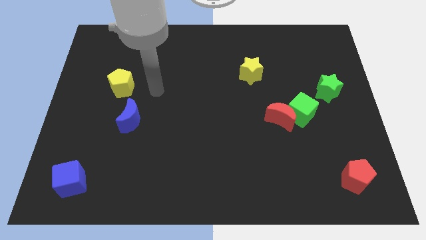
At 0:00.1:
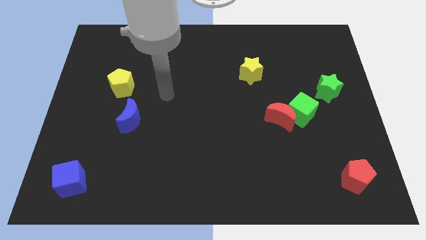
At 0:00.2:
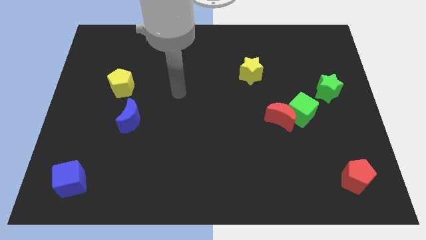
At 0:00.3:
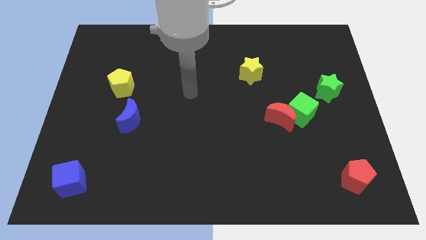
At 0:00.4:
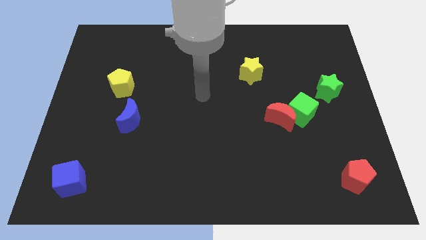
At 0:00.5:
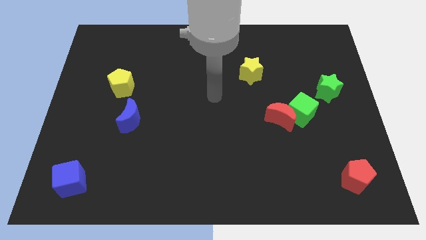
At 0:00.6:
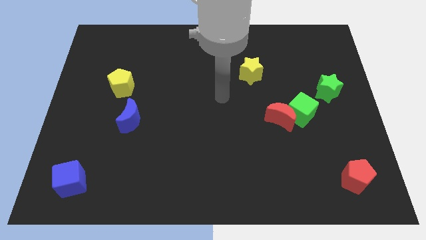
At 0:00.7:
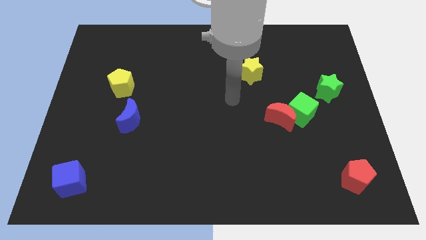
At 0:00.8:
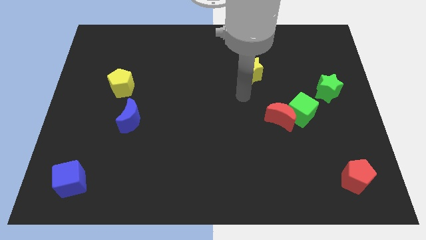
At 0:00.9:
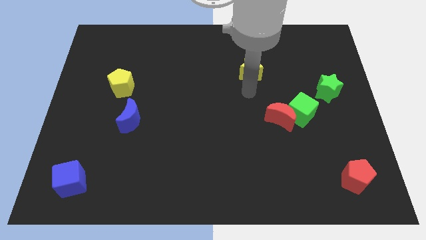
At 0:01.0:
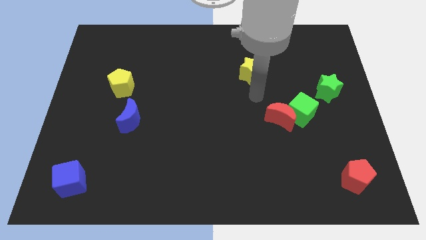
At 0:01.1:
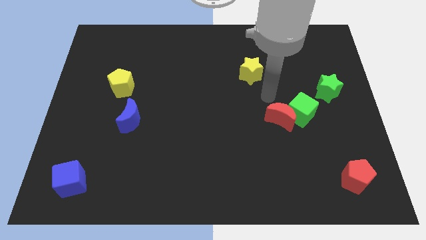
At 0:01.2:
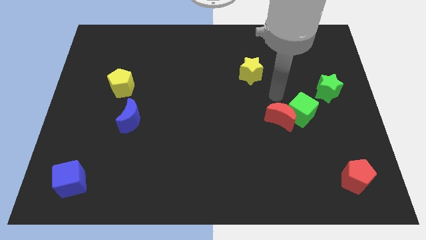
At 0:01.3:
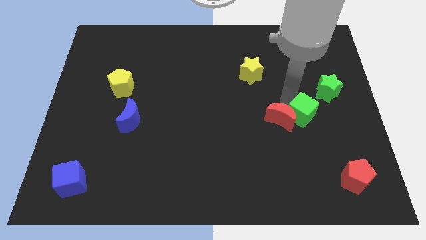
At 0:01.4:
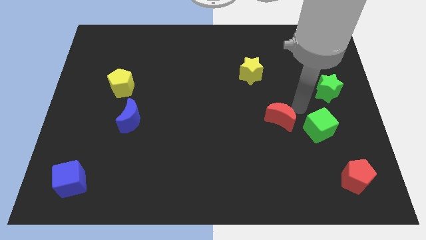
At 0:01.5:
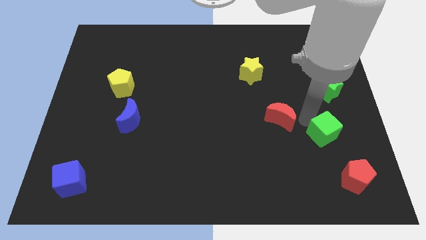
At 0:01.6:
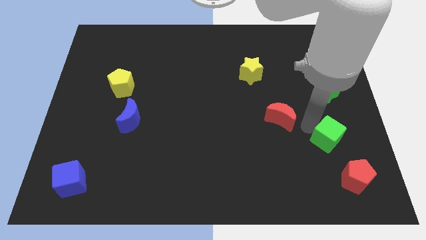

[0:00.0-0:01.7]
separate the red moon from the green cube

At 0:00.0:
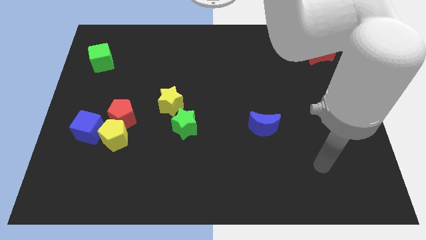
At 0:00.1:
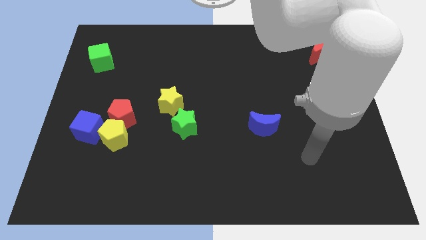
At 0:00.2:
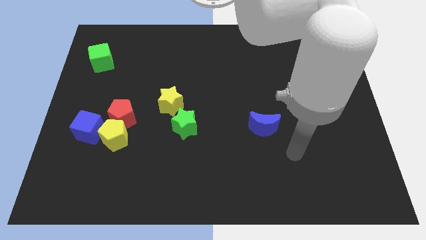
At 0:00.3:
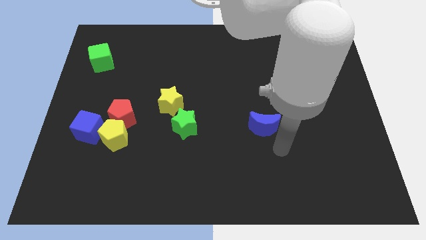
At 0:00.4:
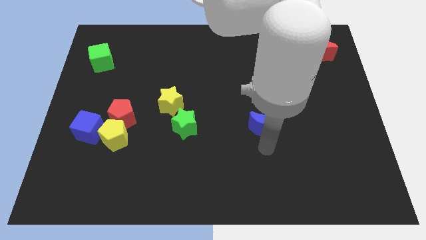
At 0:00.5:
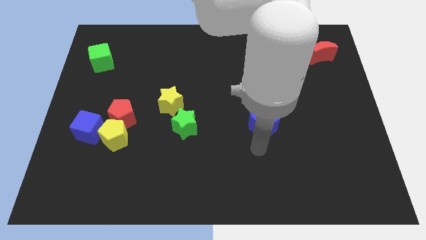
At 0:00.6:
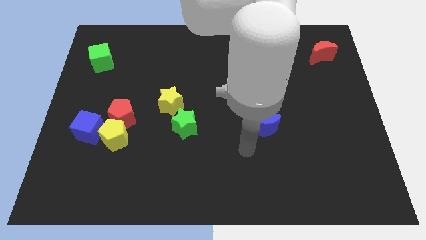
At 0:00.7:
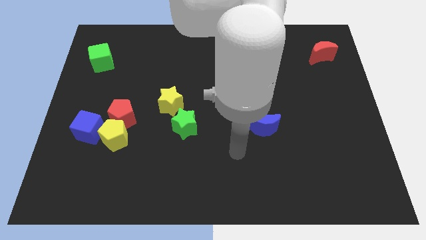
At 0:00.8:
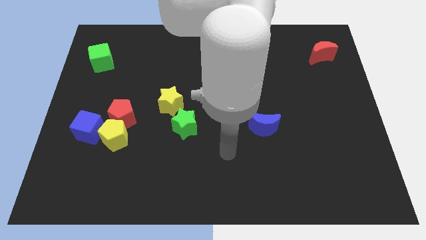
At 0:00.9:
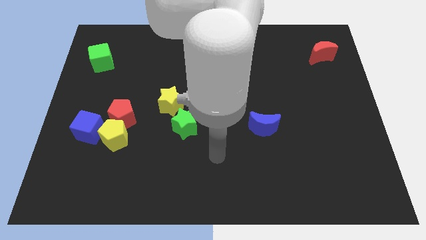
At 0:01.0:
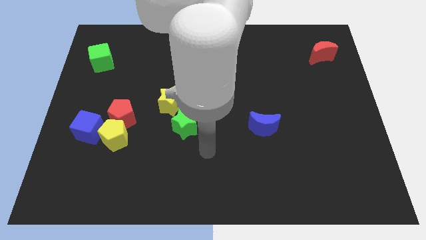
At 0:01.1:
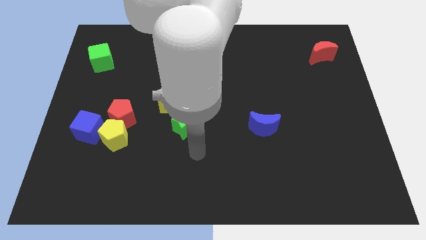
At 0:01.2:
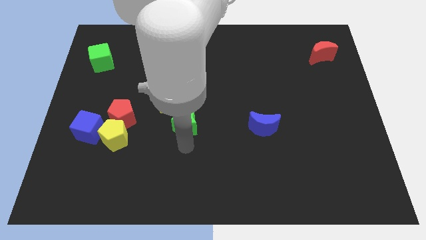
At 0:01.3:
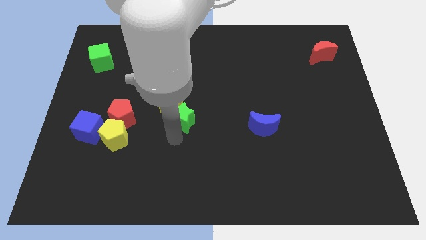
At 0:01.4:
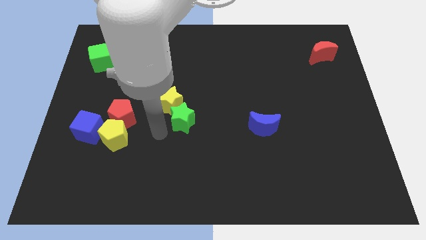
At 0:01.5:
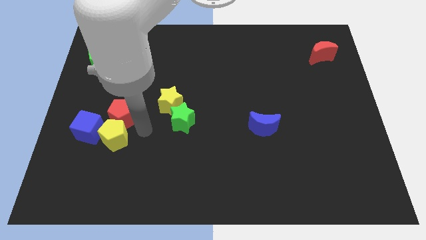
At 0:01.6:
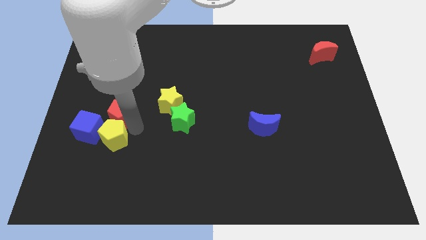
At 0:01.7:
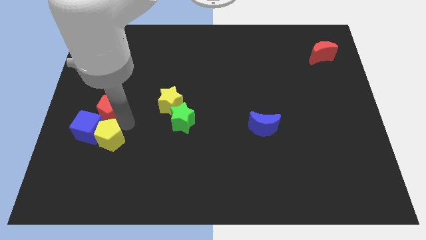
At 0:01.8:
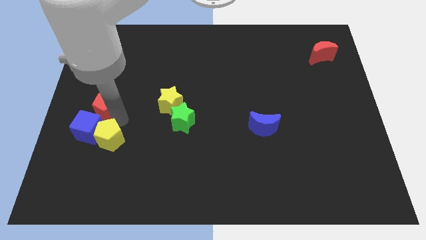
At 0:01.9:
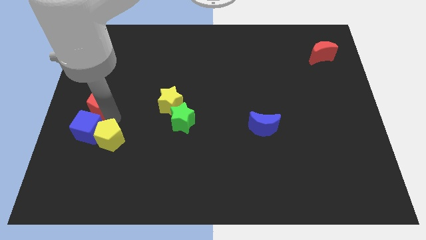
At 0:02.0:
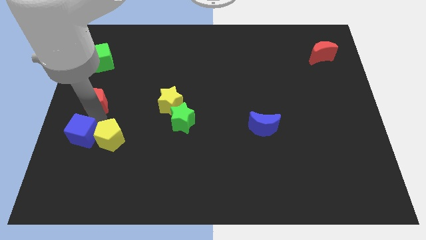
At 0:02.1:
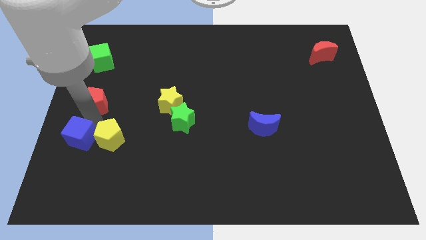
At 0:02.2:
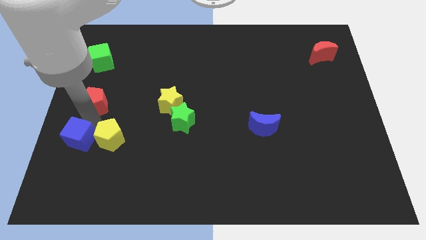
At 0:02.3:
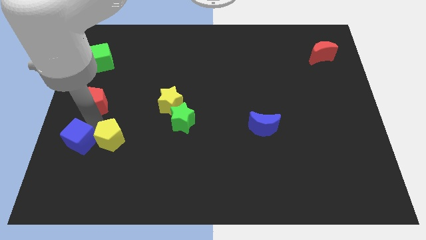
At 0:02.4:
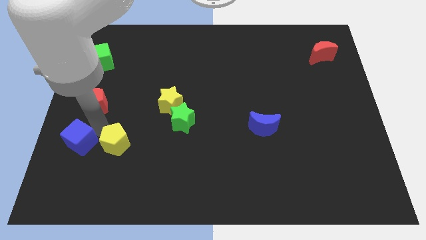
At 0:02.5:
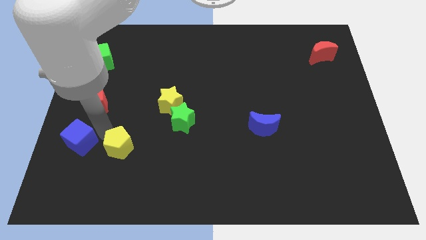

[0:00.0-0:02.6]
move the yellow pentagon away from the red pentagon and blue cube

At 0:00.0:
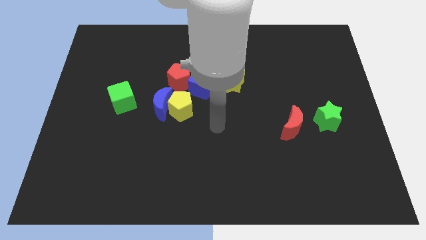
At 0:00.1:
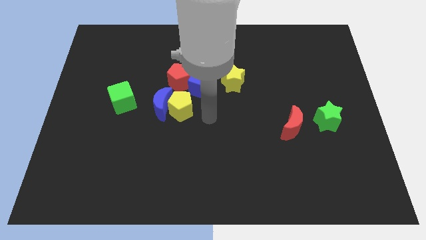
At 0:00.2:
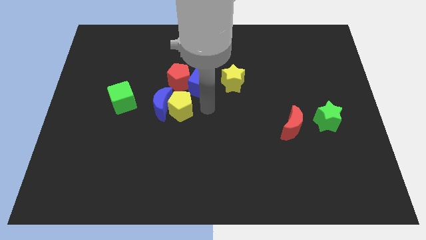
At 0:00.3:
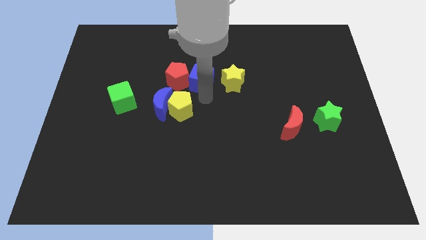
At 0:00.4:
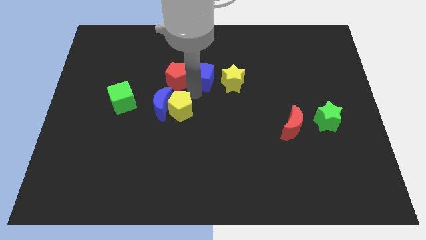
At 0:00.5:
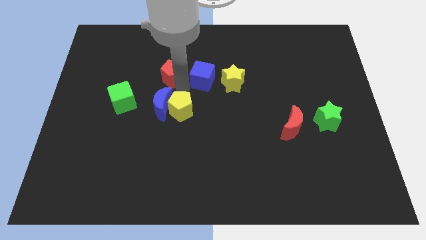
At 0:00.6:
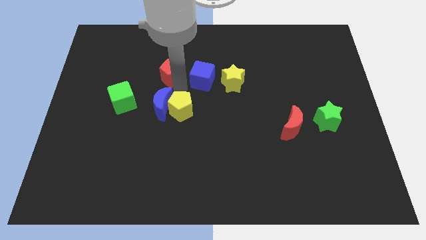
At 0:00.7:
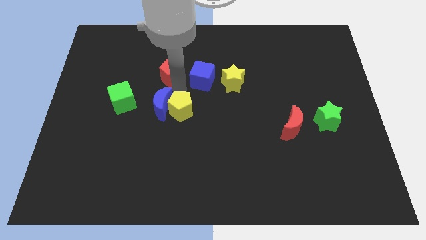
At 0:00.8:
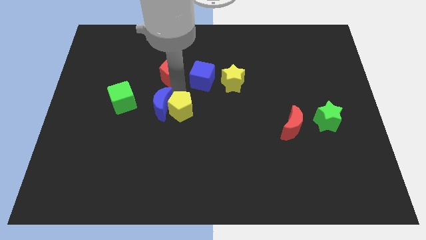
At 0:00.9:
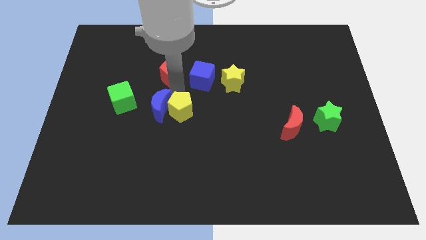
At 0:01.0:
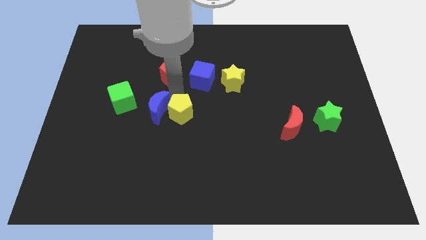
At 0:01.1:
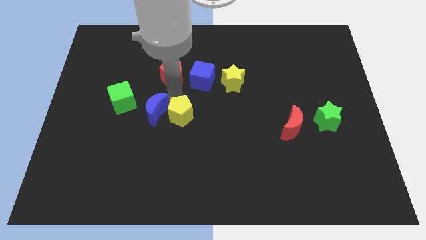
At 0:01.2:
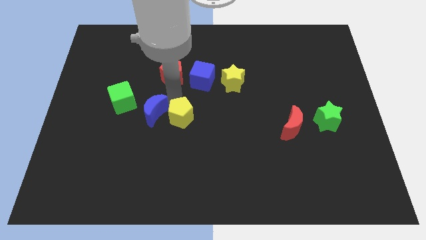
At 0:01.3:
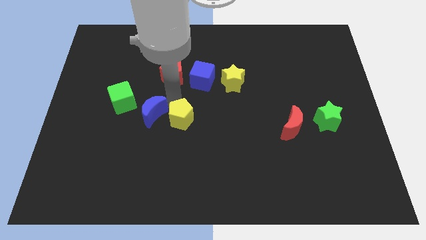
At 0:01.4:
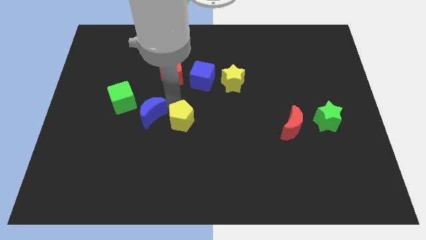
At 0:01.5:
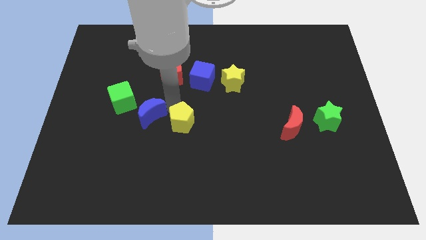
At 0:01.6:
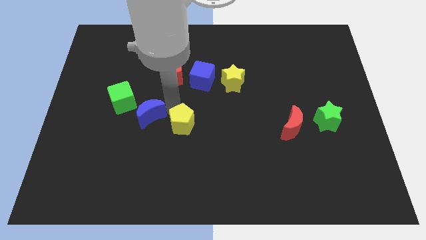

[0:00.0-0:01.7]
pull the yellow pentagon apart from the blue moon, blue cube, and red pentagon

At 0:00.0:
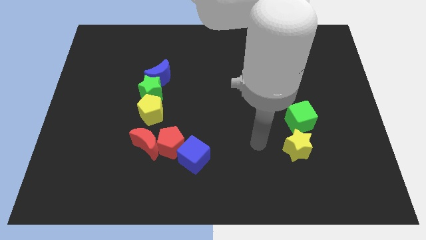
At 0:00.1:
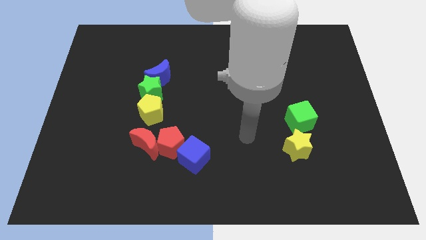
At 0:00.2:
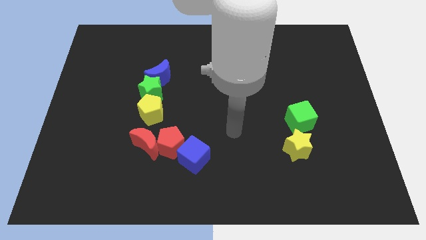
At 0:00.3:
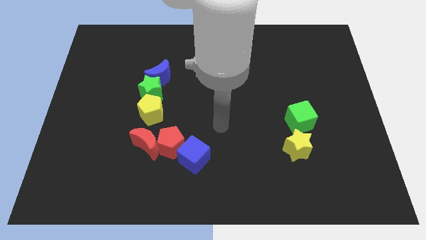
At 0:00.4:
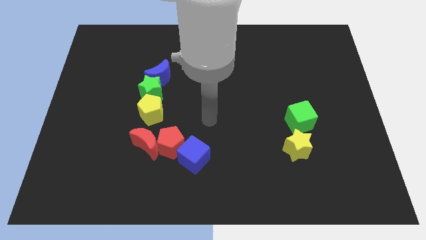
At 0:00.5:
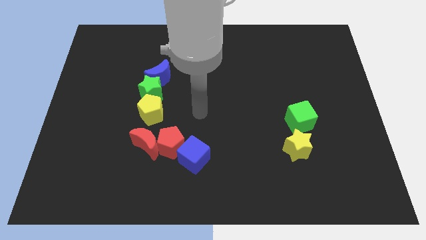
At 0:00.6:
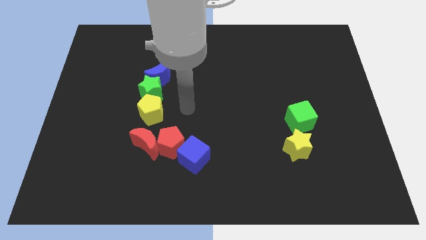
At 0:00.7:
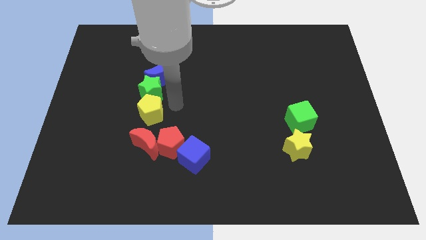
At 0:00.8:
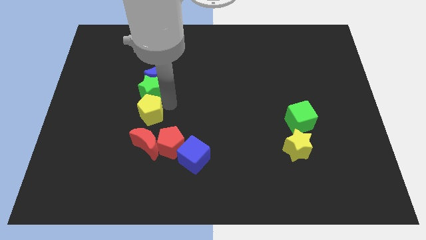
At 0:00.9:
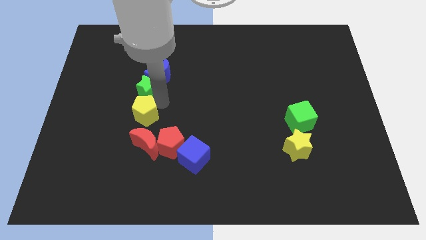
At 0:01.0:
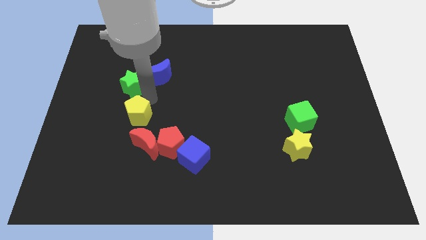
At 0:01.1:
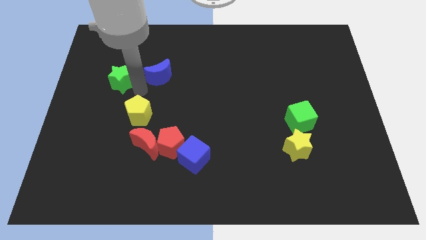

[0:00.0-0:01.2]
pull the blue moon apart from the green star

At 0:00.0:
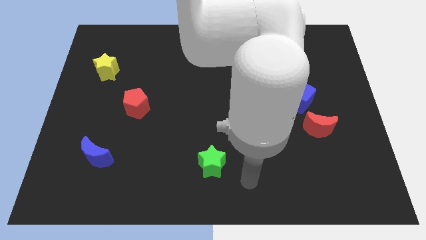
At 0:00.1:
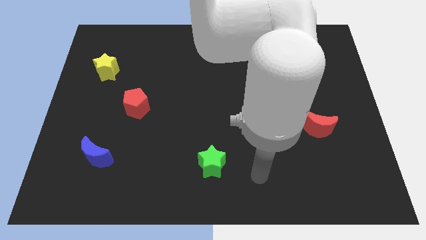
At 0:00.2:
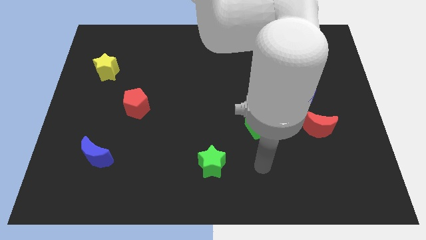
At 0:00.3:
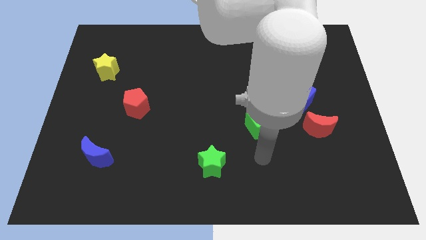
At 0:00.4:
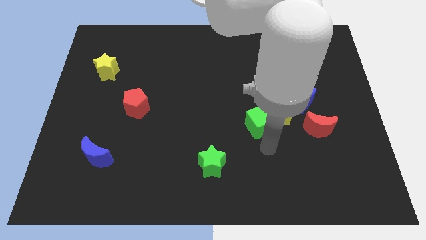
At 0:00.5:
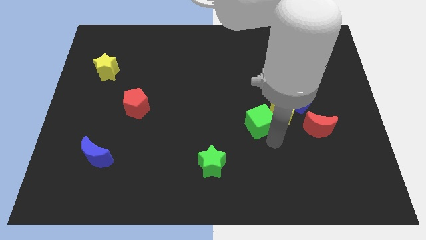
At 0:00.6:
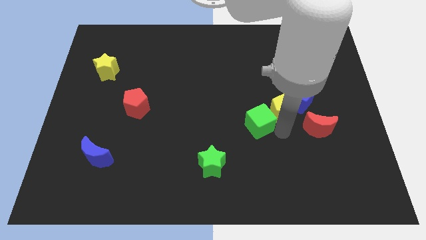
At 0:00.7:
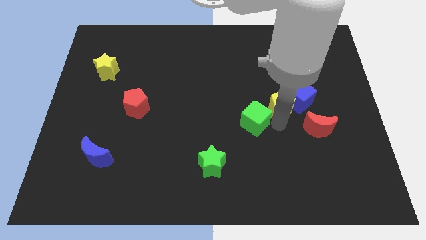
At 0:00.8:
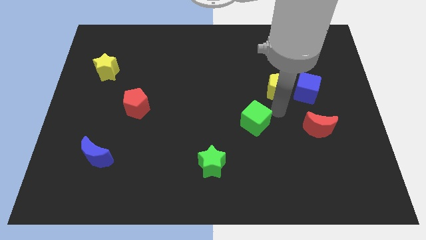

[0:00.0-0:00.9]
separate the green cube from the yellow pentagon

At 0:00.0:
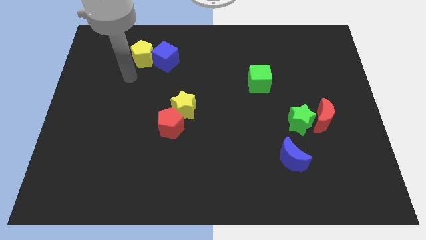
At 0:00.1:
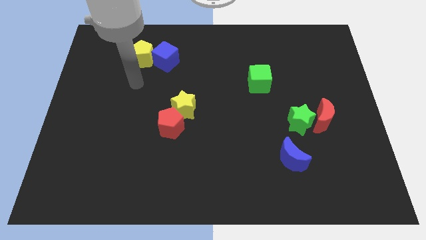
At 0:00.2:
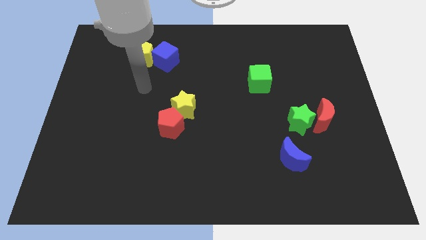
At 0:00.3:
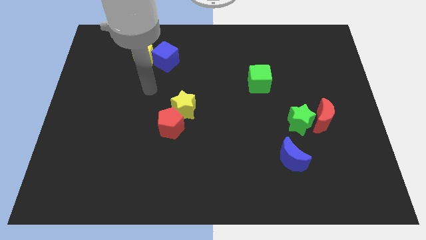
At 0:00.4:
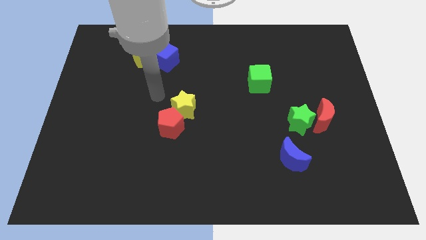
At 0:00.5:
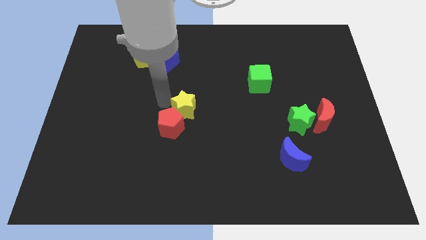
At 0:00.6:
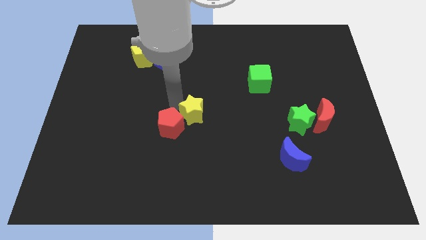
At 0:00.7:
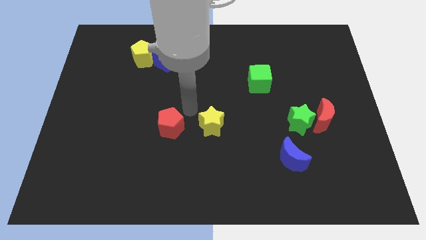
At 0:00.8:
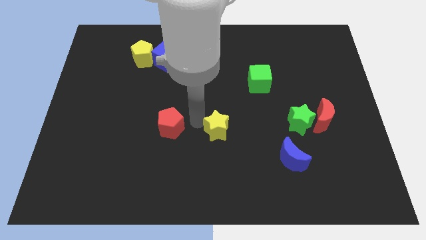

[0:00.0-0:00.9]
separate the red pentagon from the yellow star

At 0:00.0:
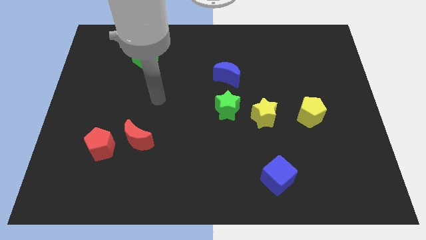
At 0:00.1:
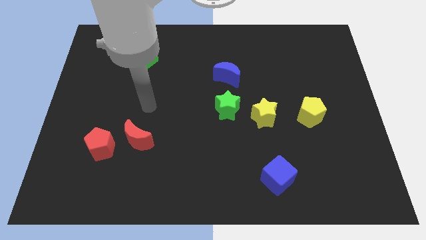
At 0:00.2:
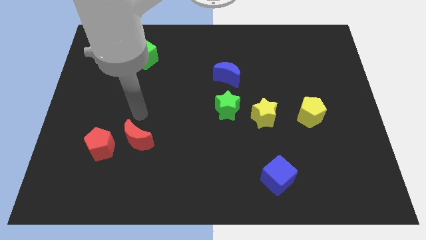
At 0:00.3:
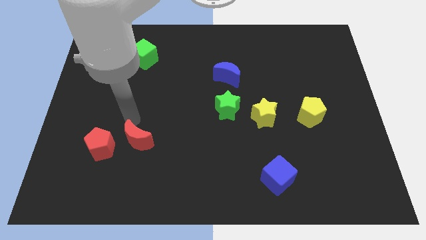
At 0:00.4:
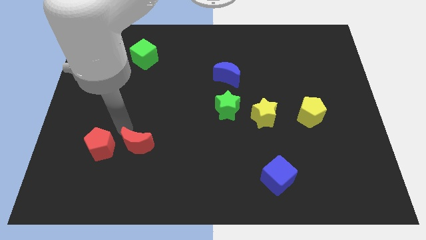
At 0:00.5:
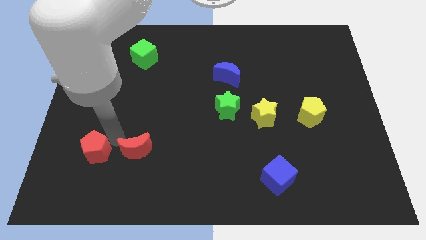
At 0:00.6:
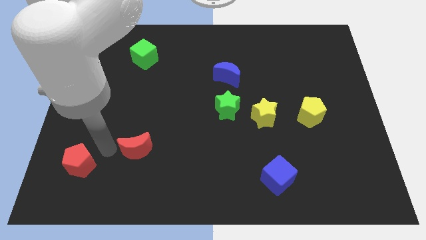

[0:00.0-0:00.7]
pull the red moon apart from the red pentagon
